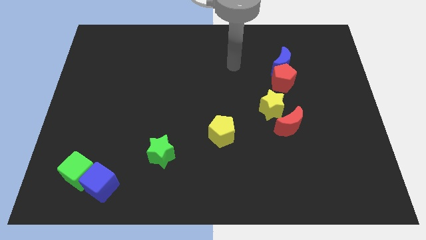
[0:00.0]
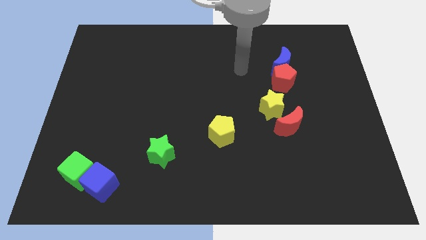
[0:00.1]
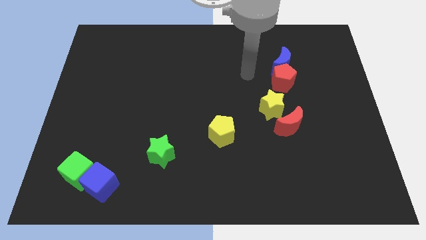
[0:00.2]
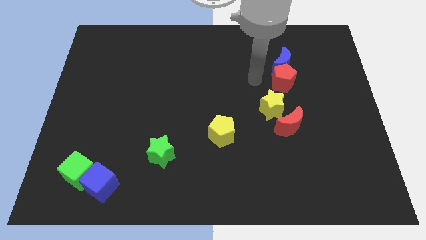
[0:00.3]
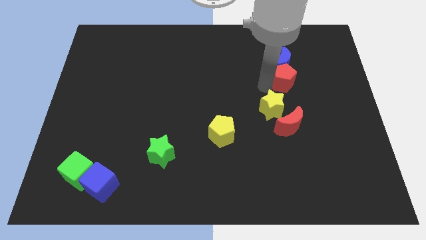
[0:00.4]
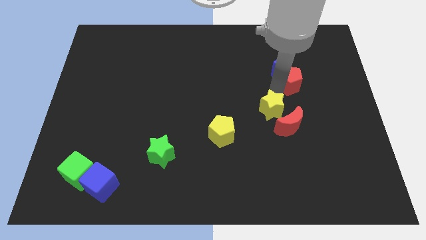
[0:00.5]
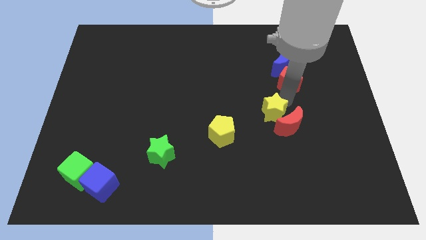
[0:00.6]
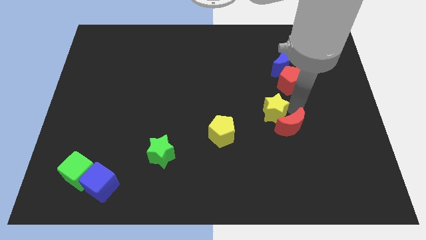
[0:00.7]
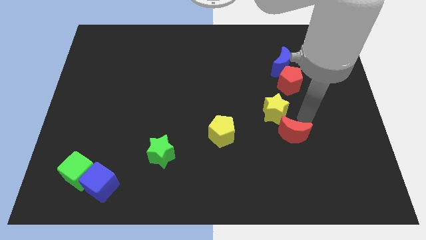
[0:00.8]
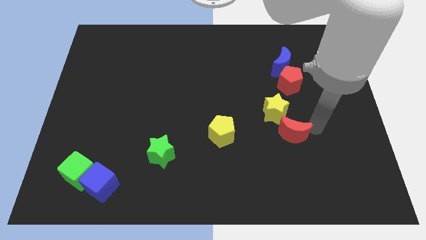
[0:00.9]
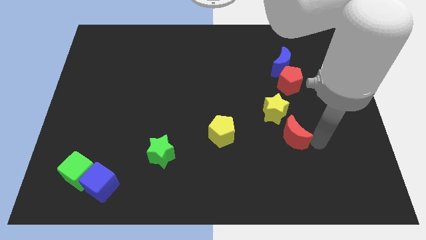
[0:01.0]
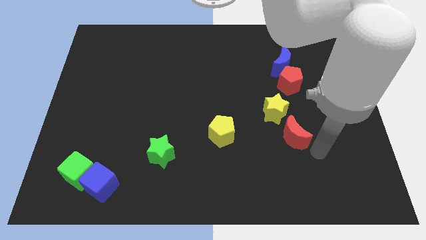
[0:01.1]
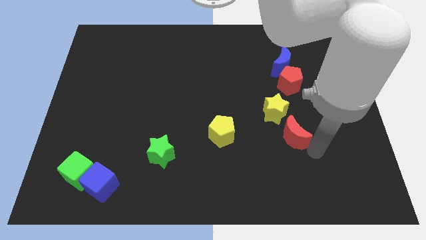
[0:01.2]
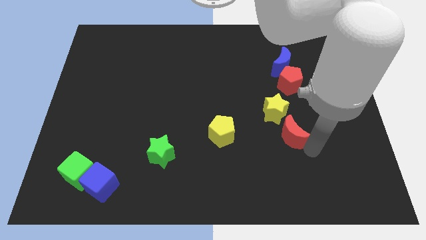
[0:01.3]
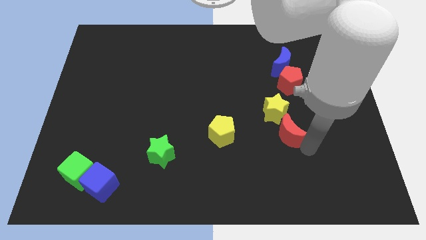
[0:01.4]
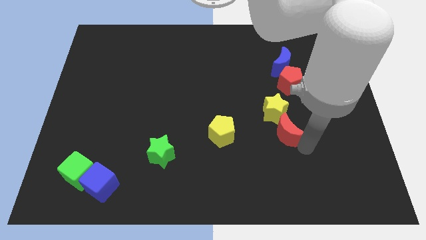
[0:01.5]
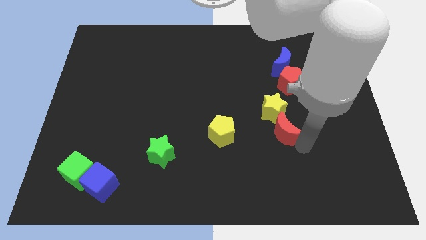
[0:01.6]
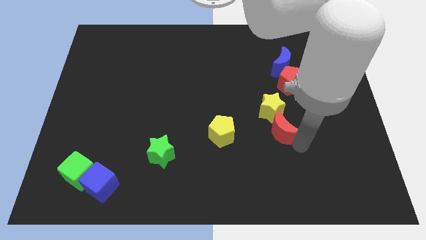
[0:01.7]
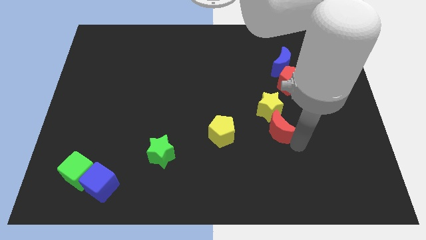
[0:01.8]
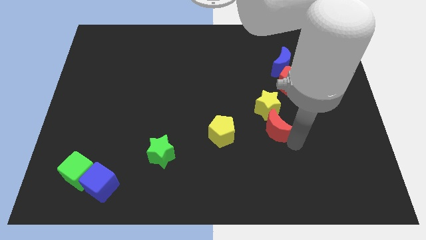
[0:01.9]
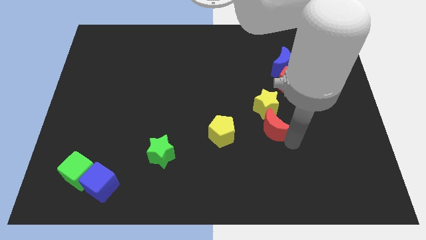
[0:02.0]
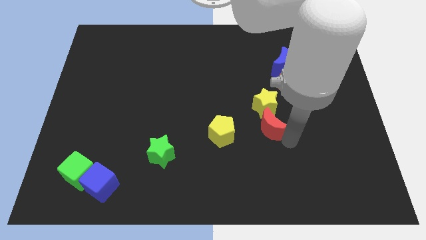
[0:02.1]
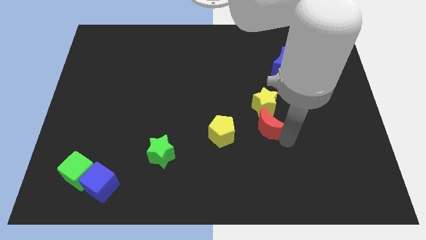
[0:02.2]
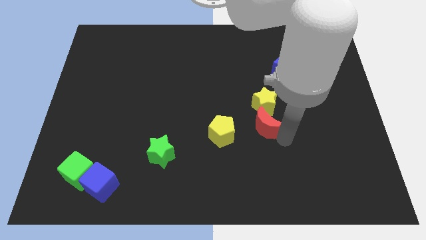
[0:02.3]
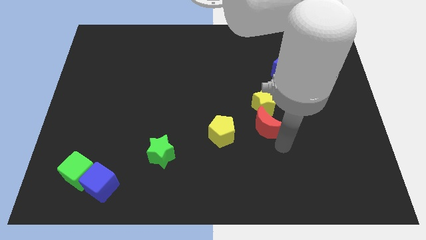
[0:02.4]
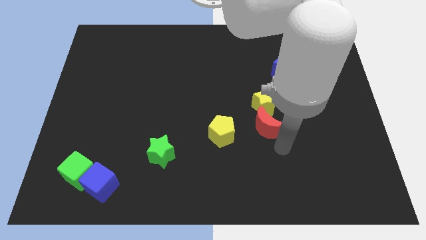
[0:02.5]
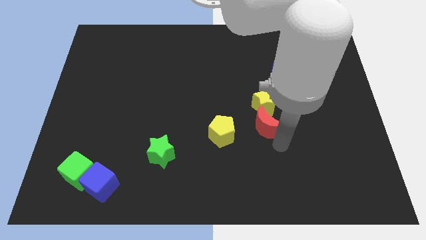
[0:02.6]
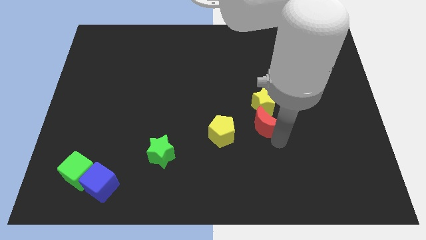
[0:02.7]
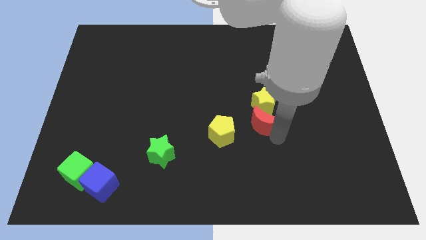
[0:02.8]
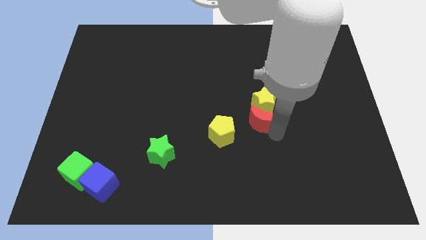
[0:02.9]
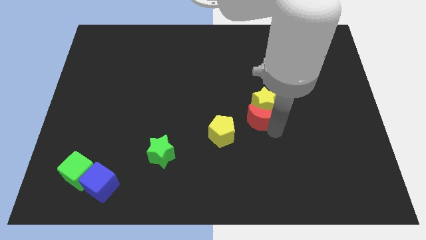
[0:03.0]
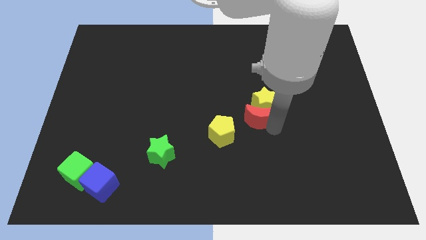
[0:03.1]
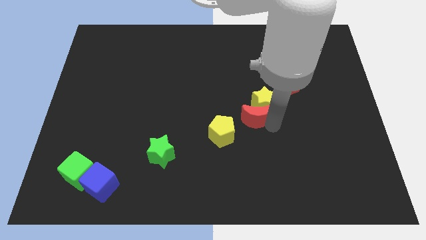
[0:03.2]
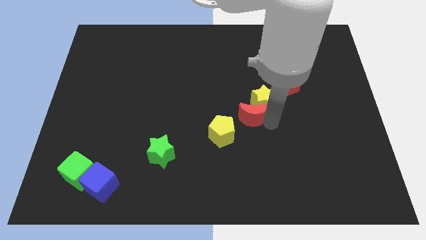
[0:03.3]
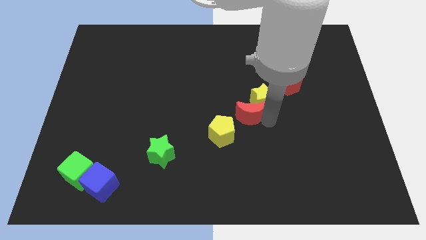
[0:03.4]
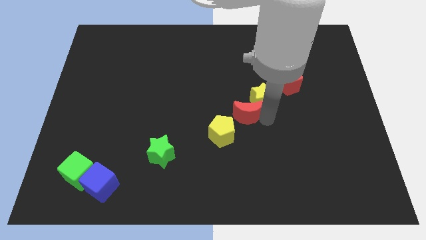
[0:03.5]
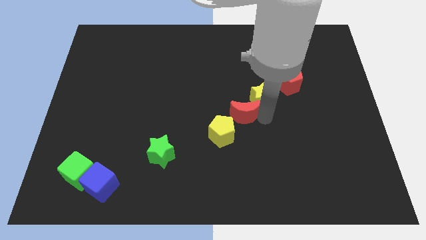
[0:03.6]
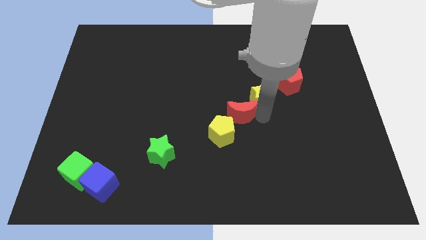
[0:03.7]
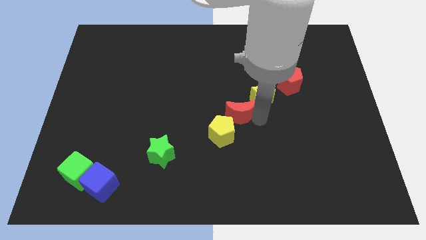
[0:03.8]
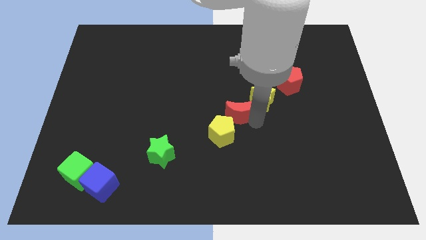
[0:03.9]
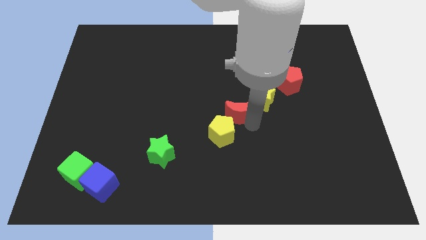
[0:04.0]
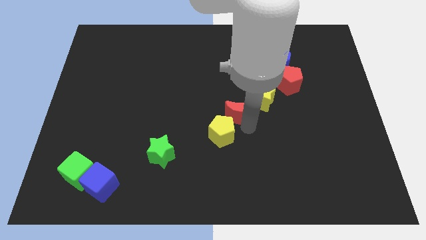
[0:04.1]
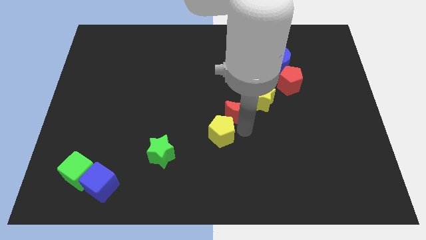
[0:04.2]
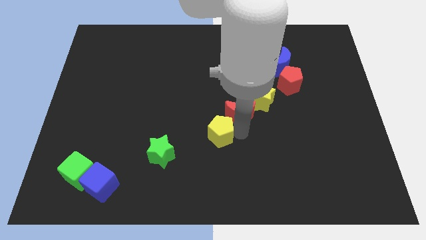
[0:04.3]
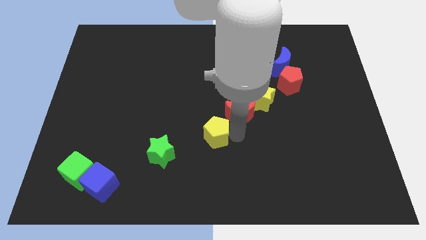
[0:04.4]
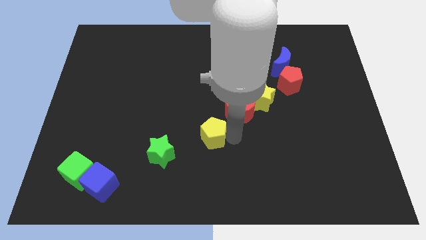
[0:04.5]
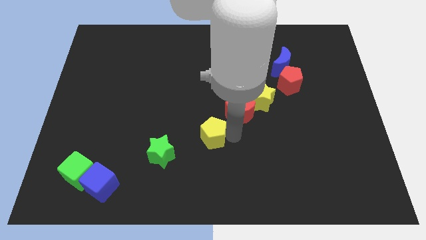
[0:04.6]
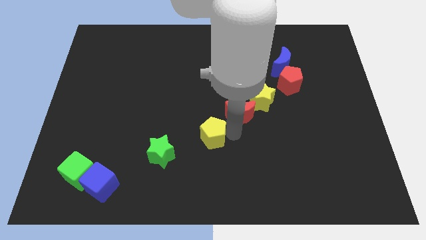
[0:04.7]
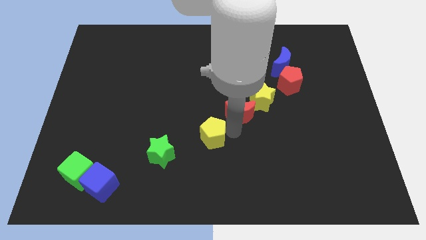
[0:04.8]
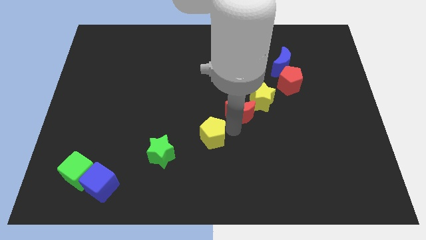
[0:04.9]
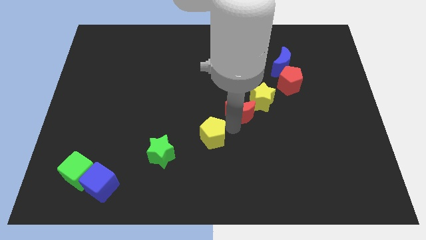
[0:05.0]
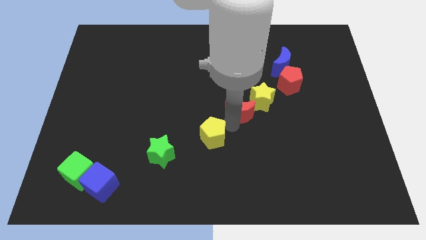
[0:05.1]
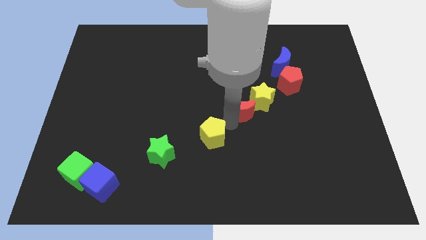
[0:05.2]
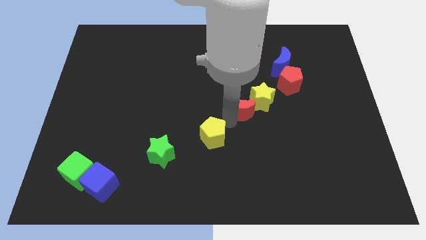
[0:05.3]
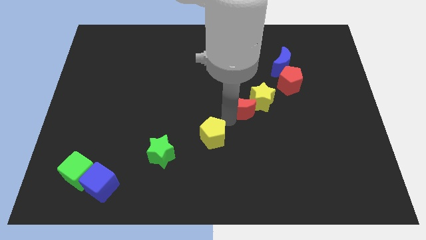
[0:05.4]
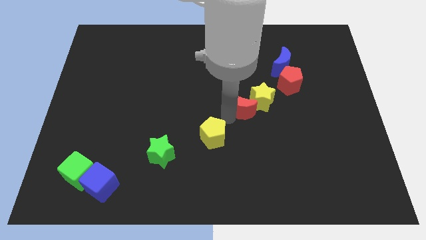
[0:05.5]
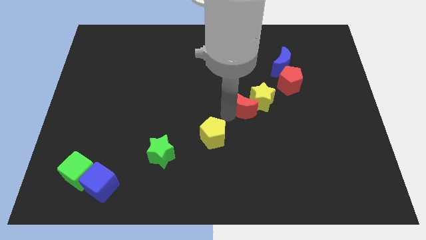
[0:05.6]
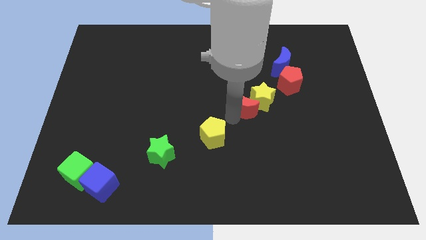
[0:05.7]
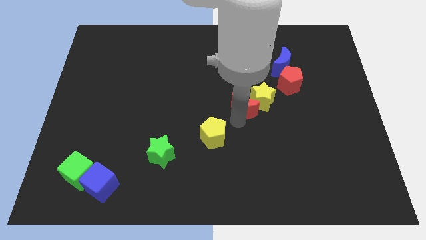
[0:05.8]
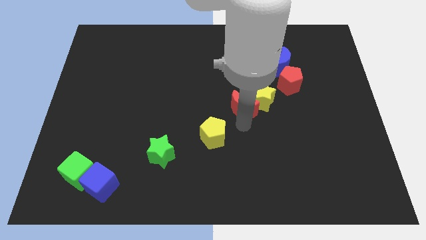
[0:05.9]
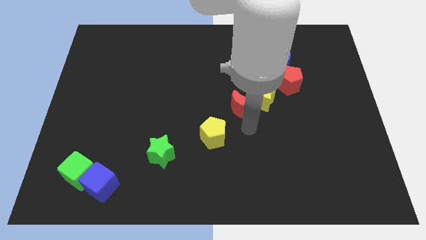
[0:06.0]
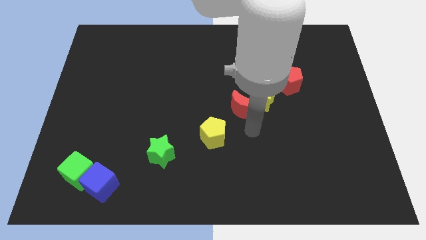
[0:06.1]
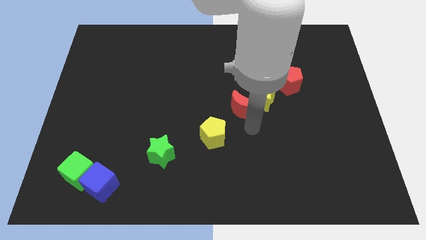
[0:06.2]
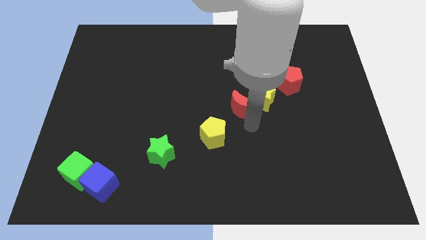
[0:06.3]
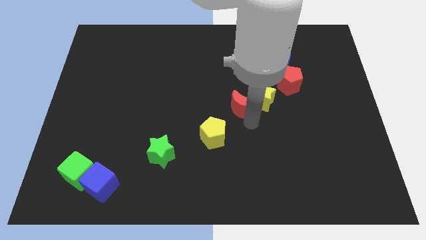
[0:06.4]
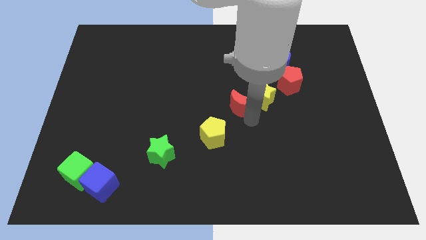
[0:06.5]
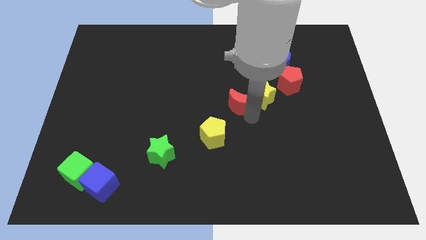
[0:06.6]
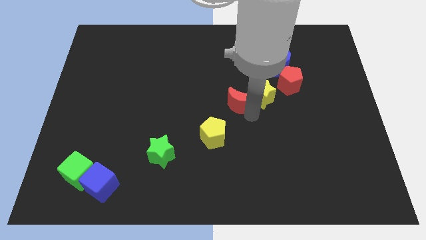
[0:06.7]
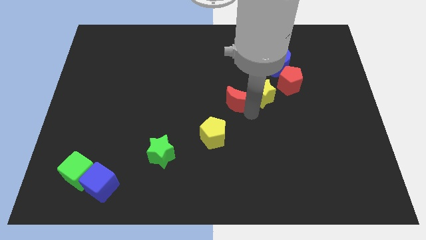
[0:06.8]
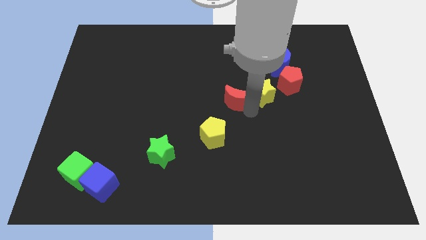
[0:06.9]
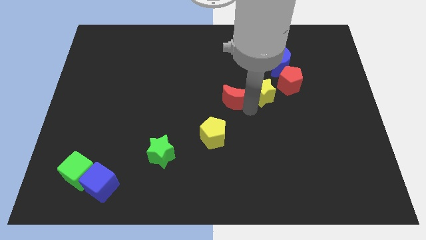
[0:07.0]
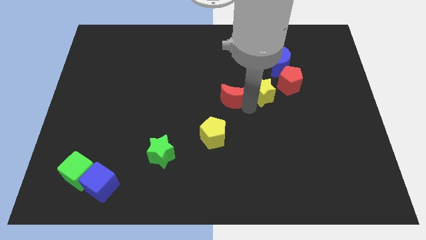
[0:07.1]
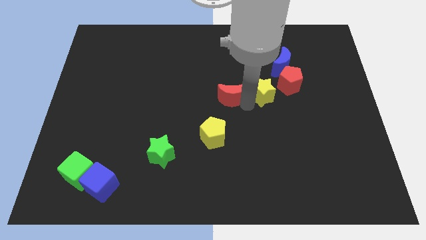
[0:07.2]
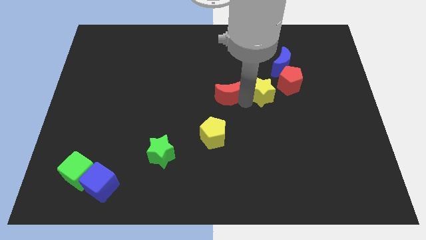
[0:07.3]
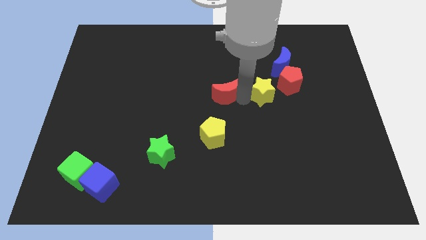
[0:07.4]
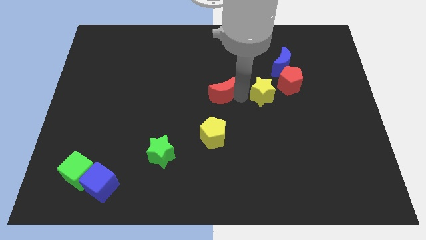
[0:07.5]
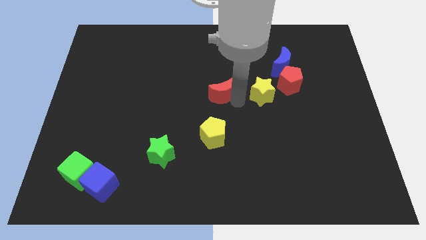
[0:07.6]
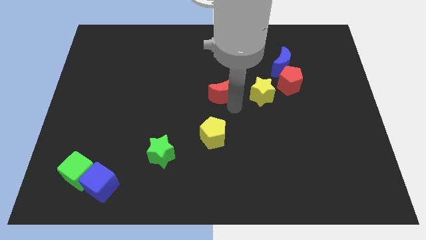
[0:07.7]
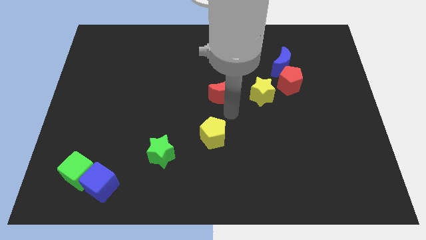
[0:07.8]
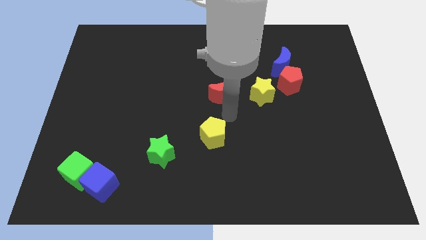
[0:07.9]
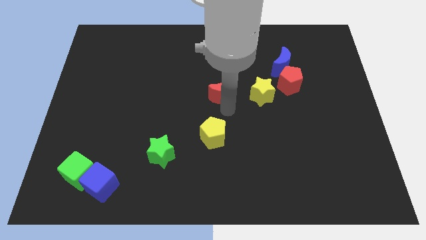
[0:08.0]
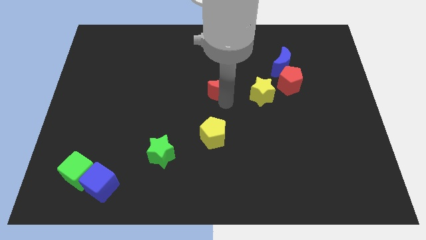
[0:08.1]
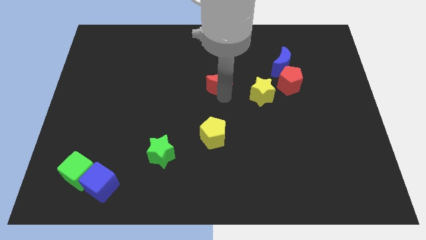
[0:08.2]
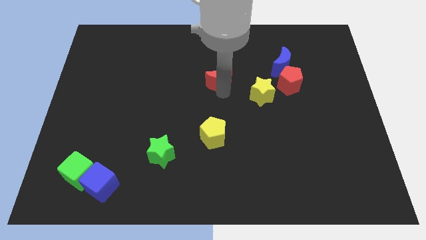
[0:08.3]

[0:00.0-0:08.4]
push the red moon upwards and then to the left
